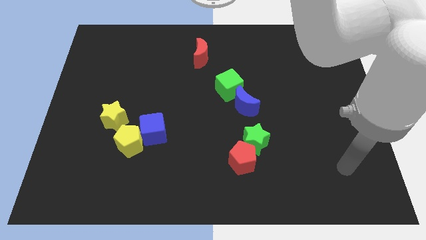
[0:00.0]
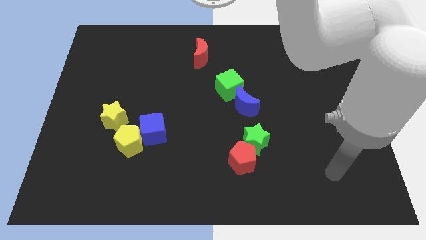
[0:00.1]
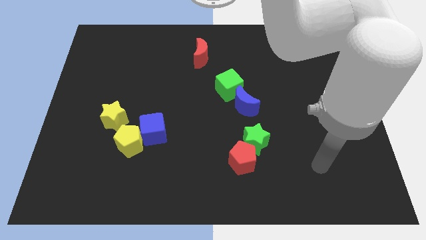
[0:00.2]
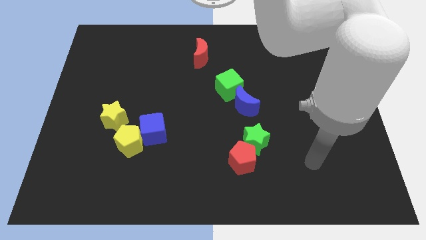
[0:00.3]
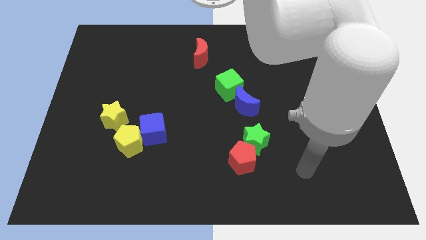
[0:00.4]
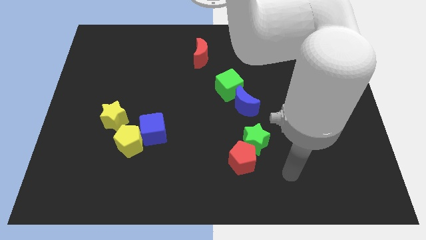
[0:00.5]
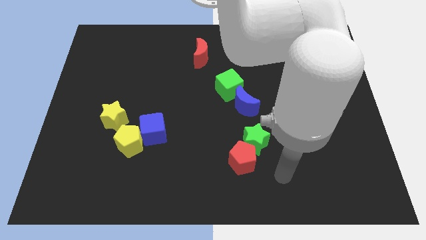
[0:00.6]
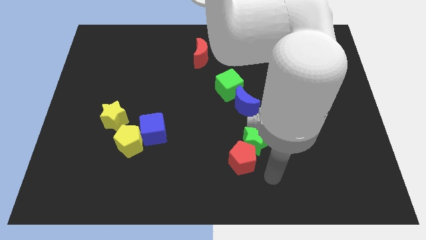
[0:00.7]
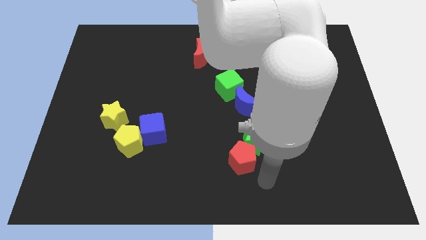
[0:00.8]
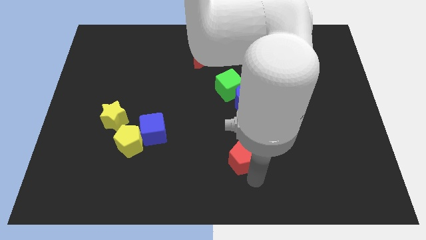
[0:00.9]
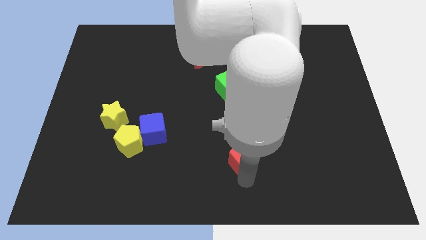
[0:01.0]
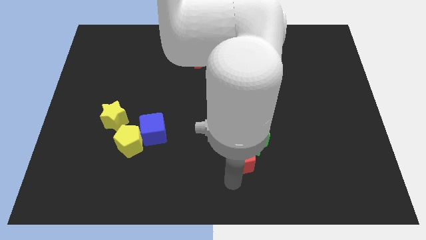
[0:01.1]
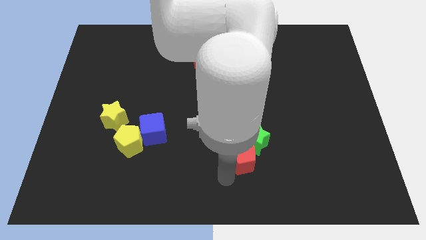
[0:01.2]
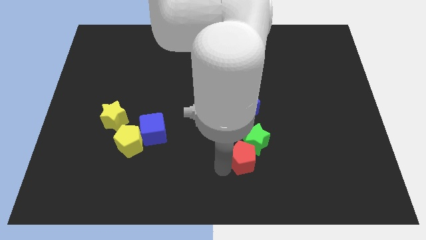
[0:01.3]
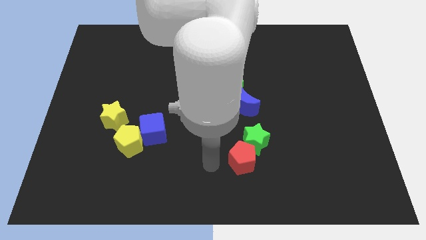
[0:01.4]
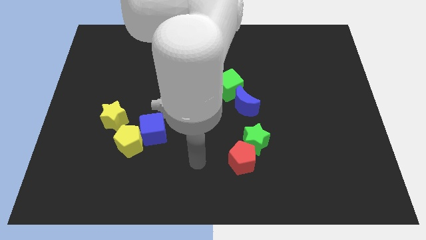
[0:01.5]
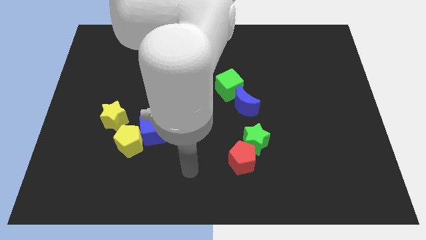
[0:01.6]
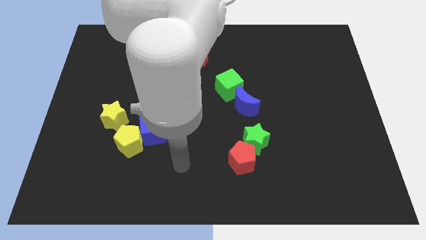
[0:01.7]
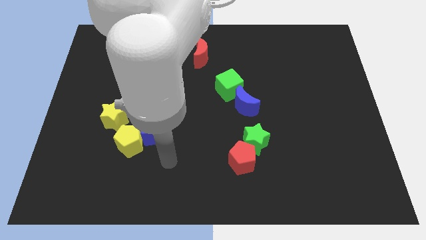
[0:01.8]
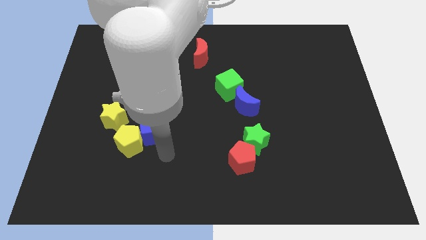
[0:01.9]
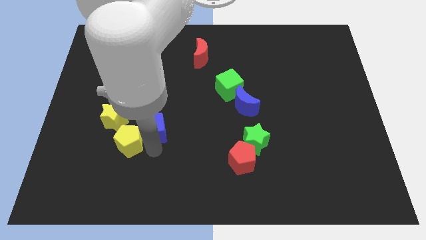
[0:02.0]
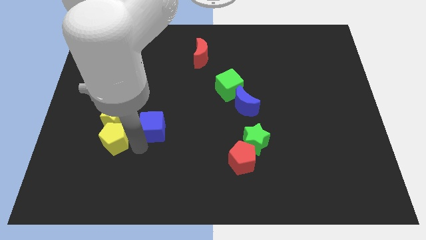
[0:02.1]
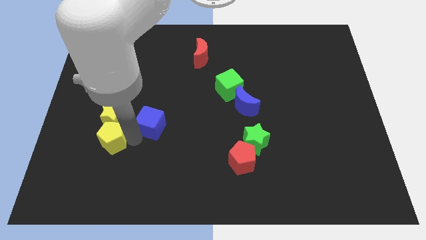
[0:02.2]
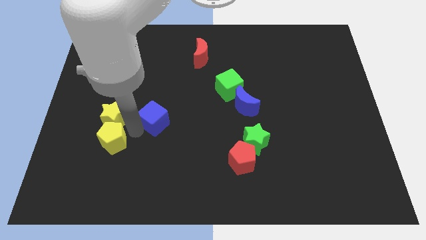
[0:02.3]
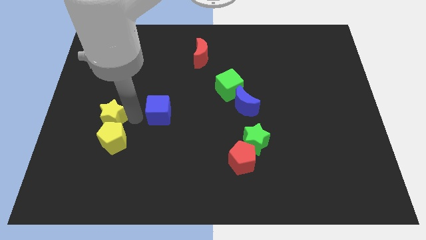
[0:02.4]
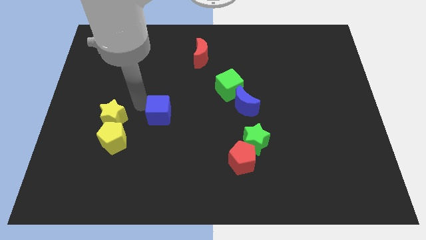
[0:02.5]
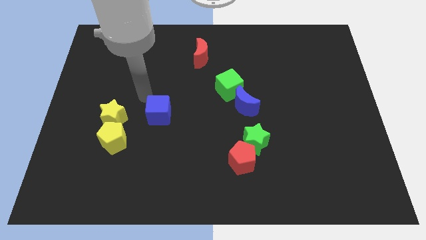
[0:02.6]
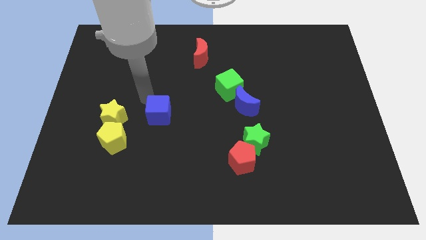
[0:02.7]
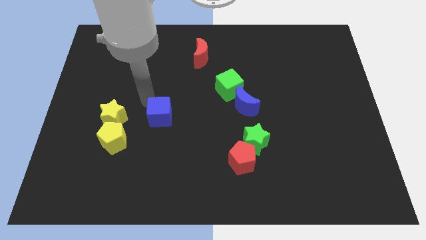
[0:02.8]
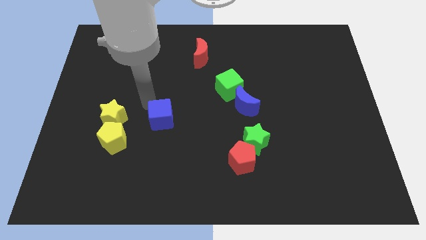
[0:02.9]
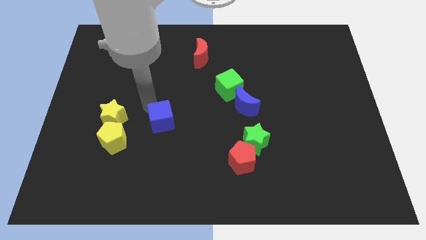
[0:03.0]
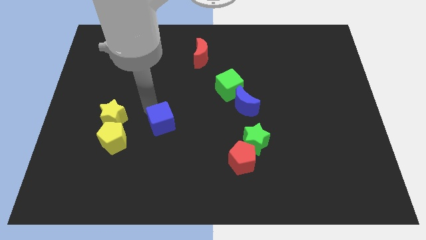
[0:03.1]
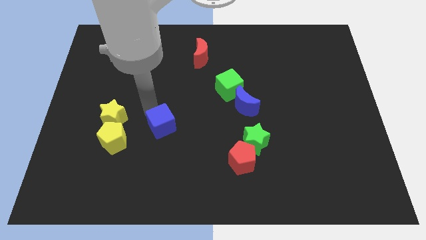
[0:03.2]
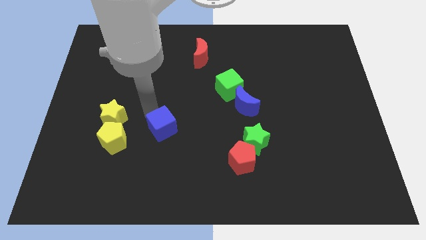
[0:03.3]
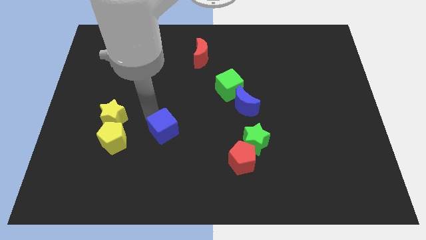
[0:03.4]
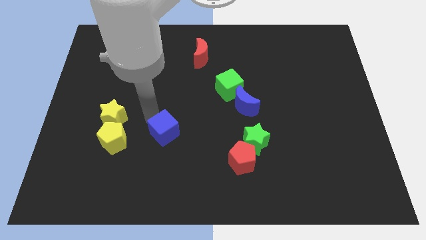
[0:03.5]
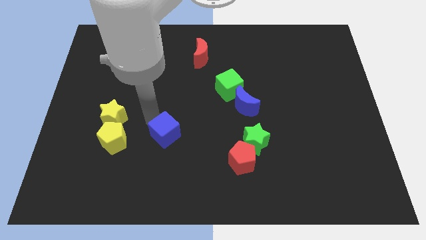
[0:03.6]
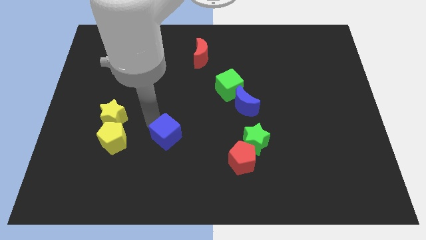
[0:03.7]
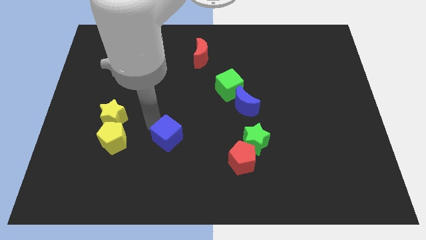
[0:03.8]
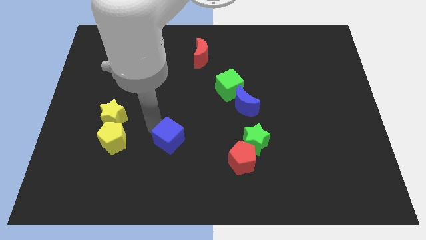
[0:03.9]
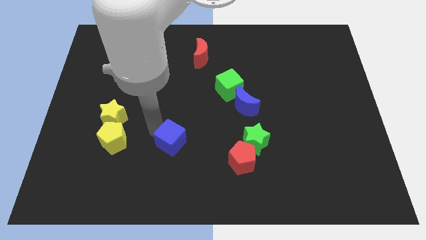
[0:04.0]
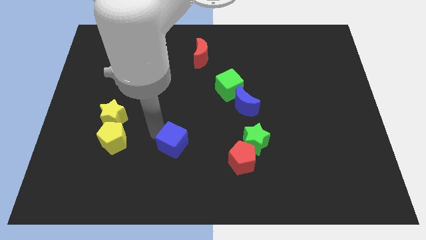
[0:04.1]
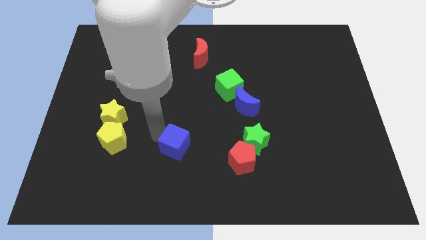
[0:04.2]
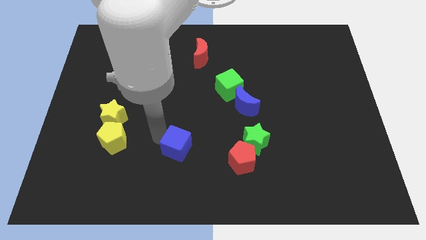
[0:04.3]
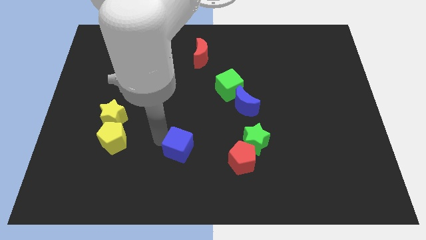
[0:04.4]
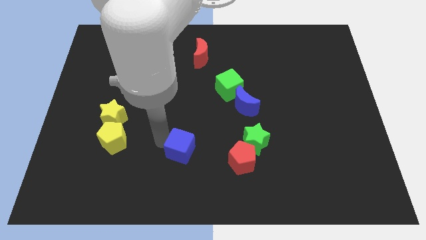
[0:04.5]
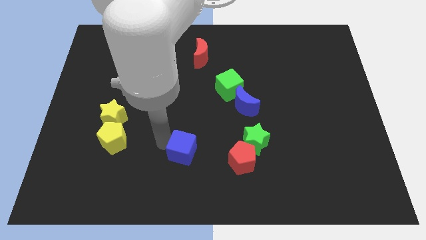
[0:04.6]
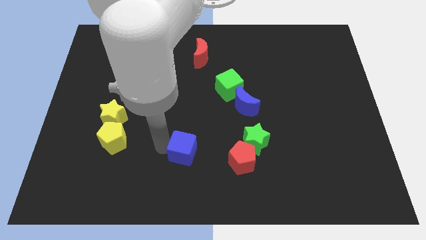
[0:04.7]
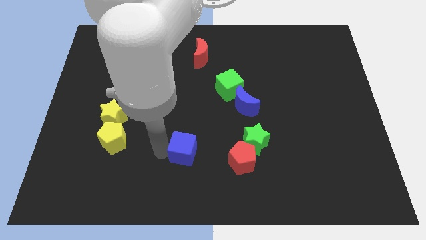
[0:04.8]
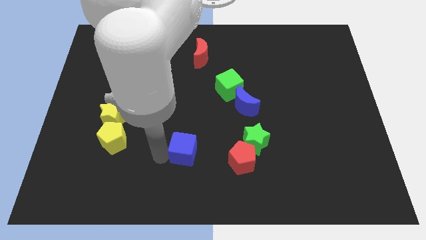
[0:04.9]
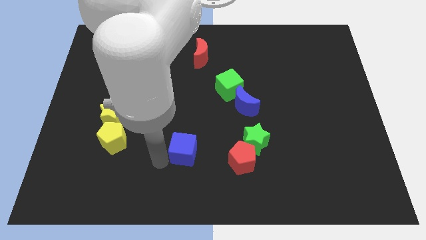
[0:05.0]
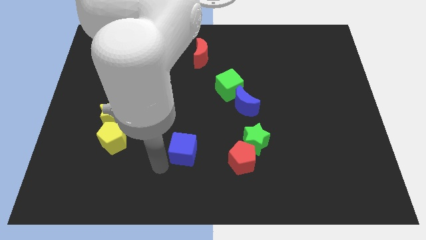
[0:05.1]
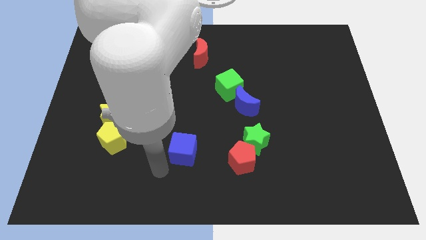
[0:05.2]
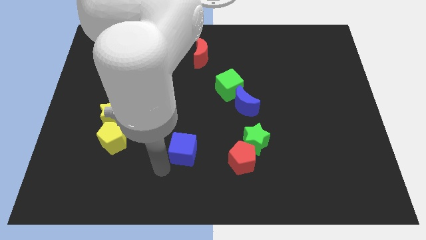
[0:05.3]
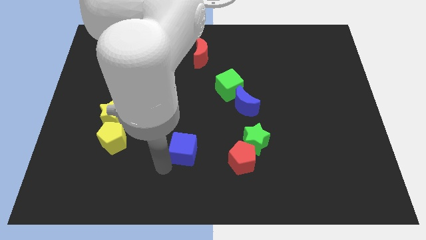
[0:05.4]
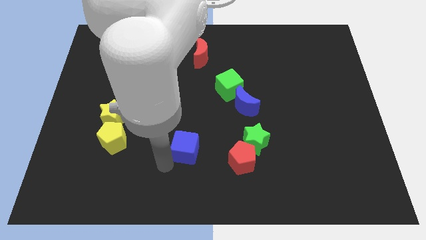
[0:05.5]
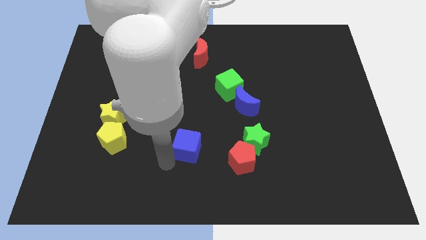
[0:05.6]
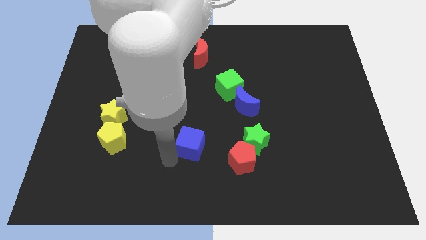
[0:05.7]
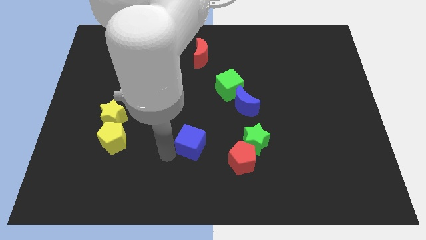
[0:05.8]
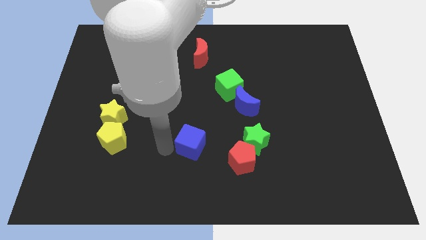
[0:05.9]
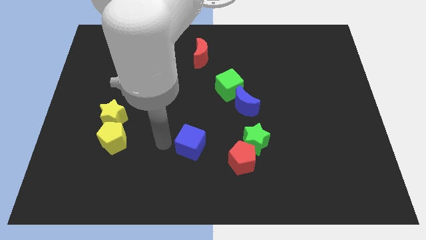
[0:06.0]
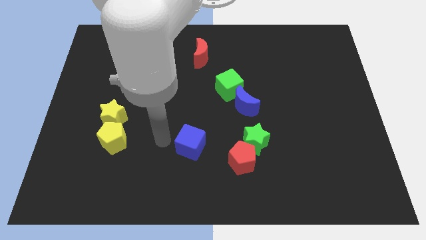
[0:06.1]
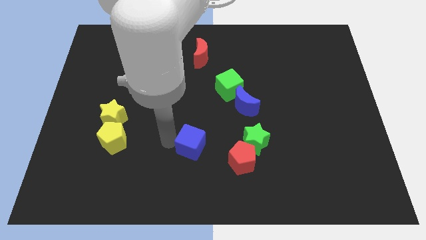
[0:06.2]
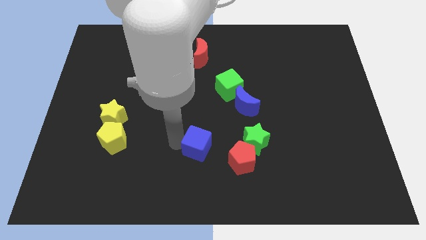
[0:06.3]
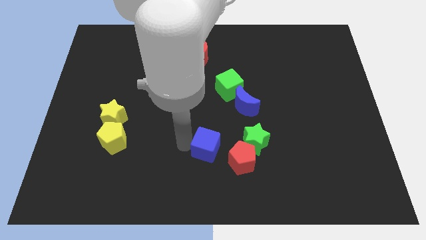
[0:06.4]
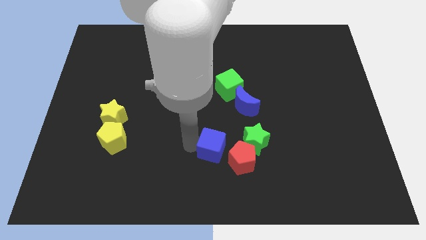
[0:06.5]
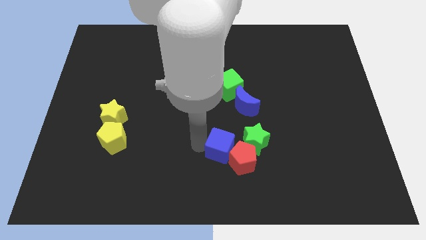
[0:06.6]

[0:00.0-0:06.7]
move the blue cube to the bottom left of the green star

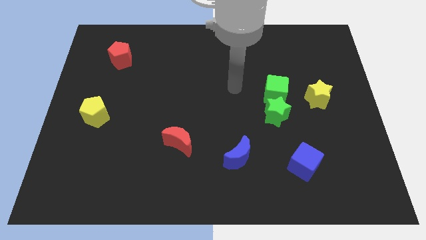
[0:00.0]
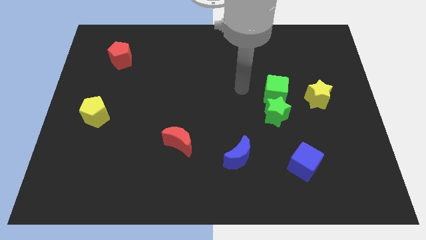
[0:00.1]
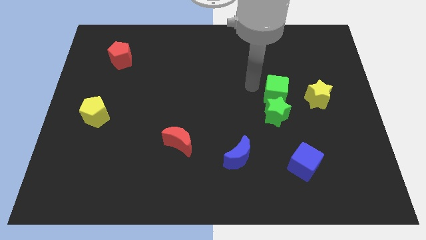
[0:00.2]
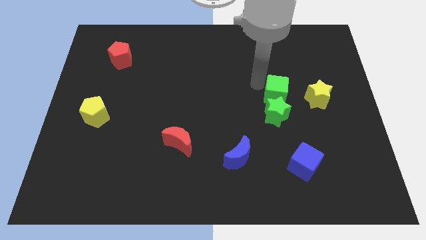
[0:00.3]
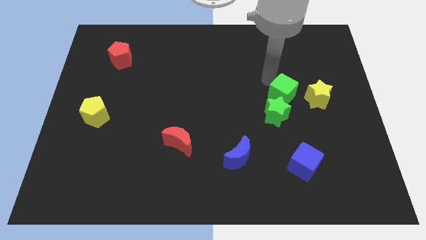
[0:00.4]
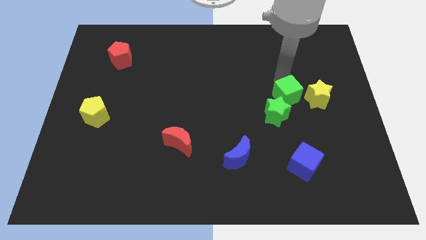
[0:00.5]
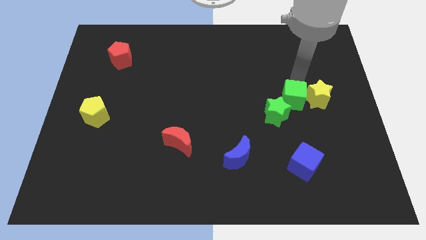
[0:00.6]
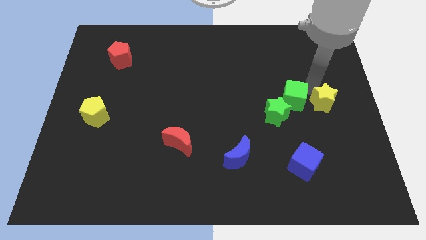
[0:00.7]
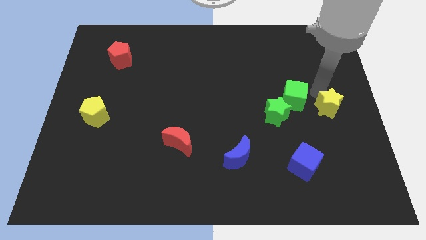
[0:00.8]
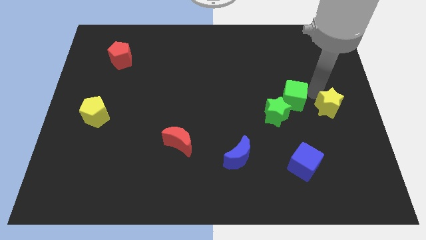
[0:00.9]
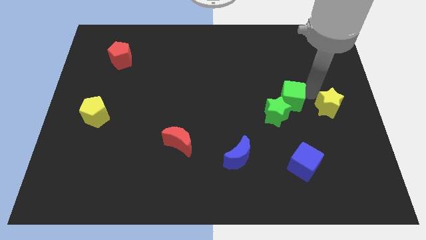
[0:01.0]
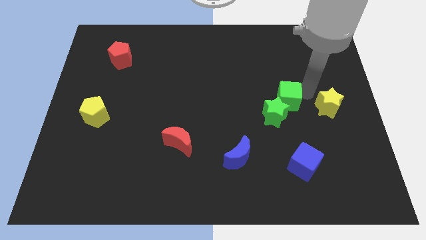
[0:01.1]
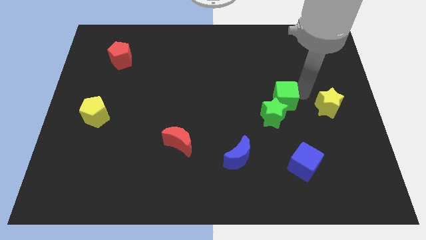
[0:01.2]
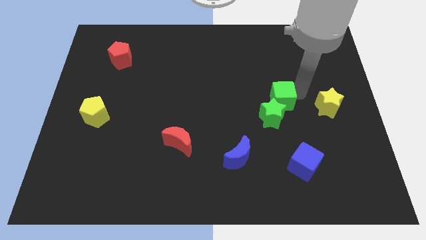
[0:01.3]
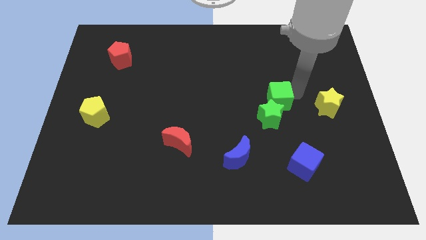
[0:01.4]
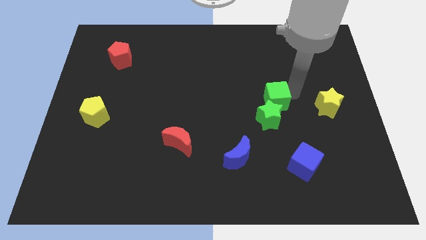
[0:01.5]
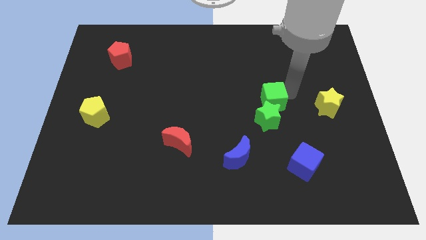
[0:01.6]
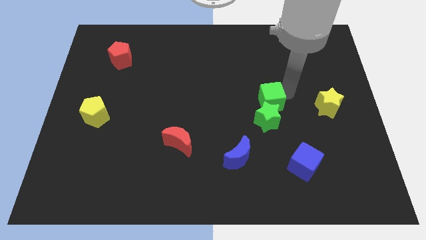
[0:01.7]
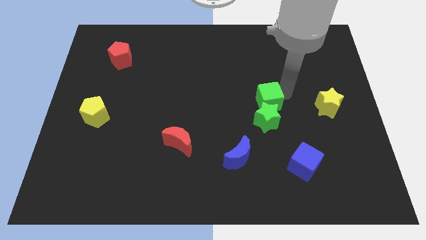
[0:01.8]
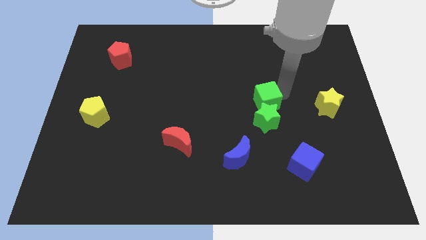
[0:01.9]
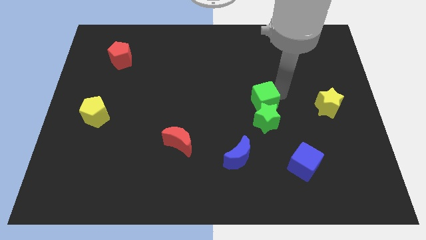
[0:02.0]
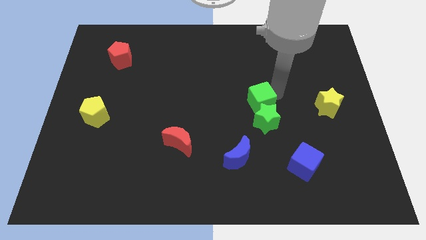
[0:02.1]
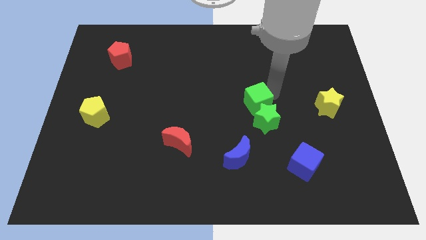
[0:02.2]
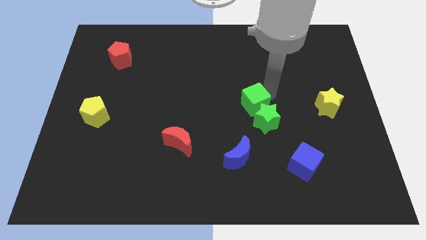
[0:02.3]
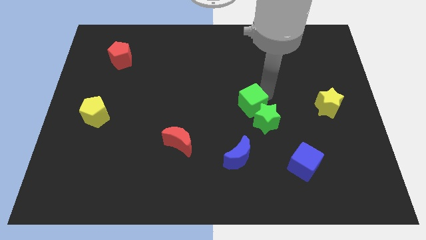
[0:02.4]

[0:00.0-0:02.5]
put the green cube above the blue moon
